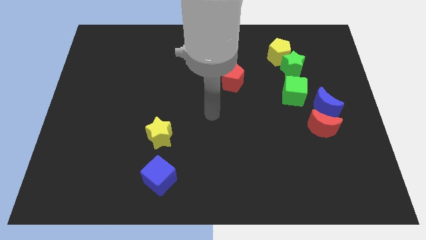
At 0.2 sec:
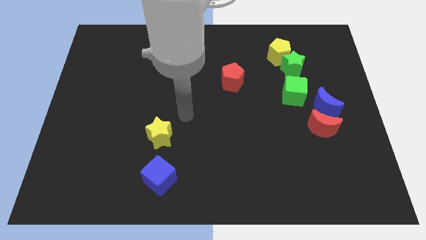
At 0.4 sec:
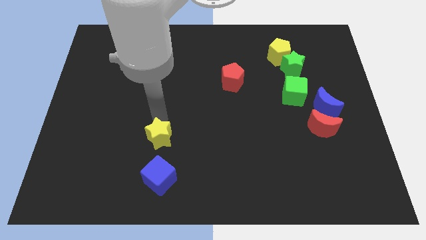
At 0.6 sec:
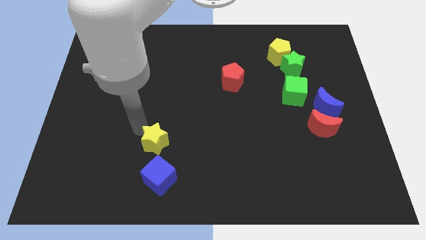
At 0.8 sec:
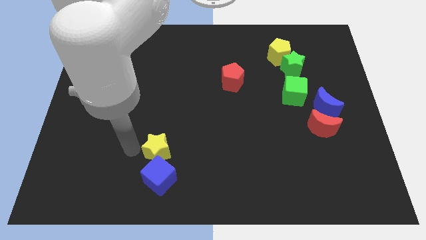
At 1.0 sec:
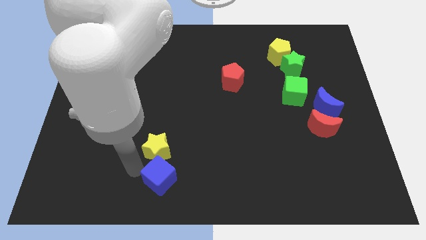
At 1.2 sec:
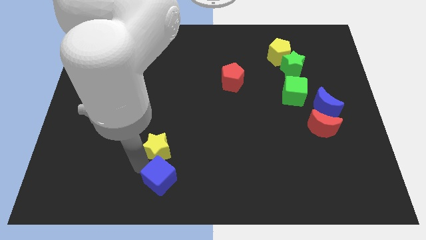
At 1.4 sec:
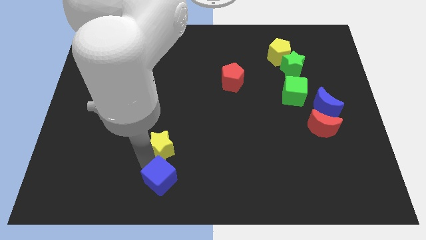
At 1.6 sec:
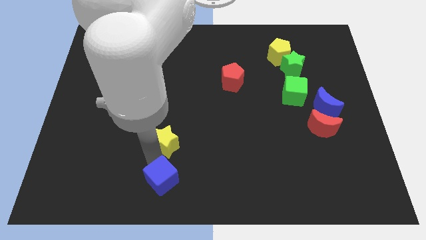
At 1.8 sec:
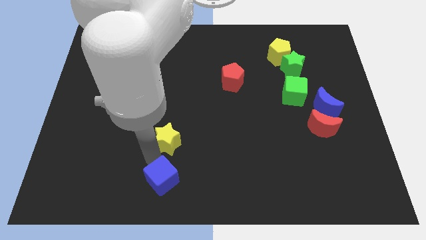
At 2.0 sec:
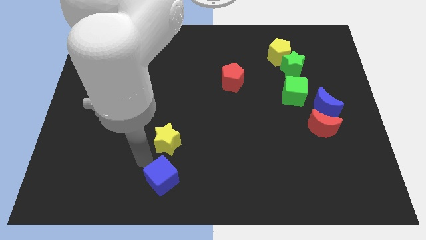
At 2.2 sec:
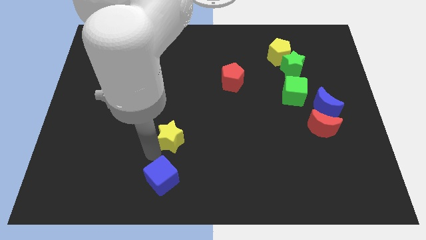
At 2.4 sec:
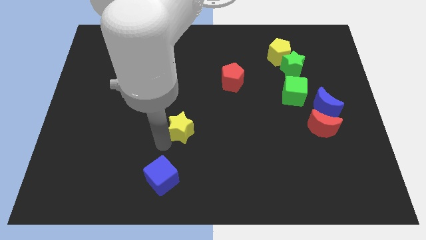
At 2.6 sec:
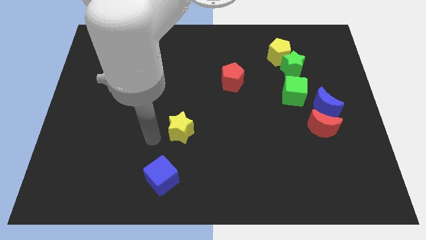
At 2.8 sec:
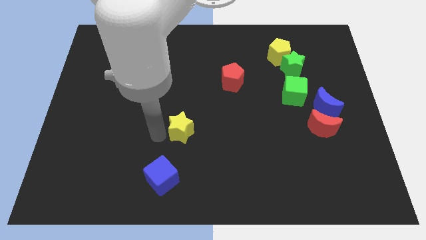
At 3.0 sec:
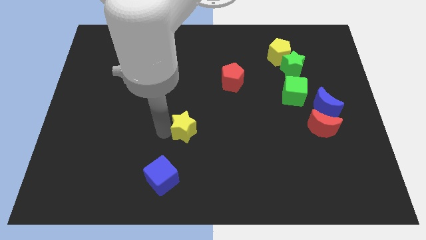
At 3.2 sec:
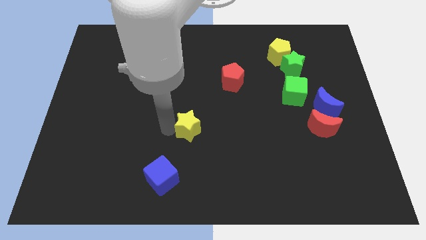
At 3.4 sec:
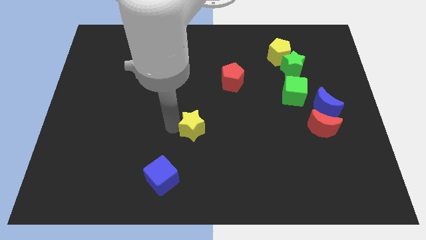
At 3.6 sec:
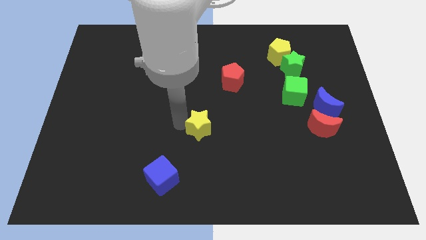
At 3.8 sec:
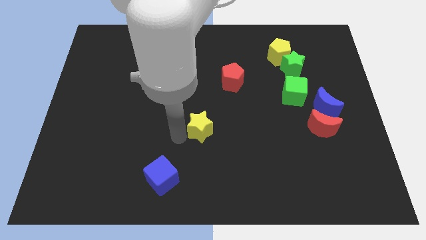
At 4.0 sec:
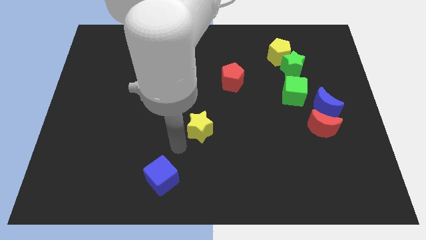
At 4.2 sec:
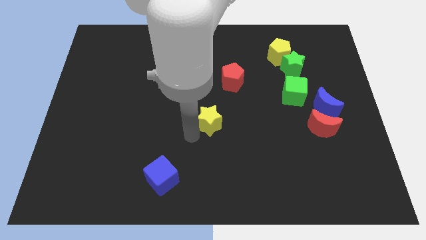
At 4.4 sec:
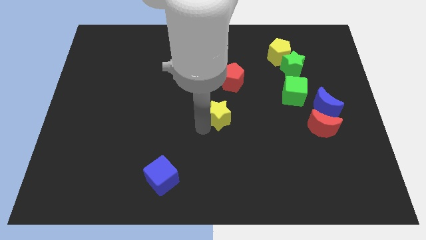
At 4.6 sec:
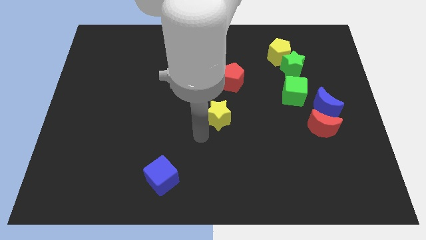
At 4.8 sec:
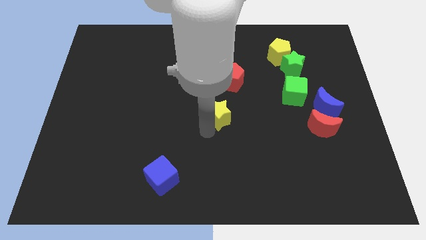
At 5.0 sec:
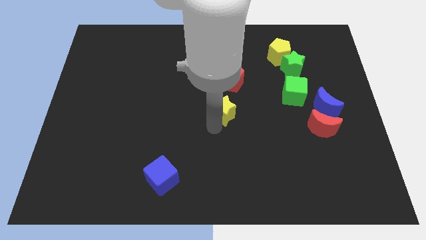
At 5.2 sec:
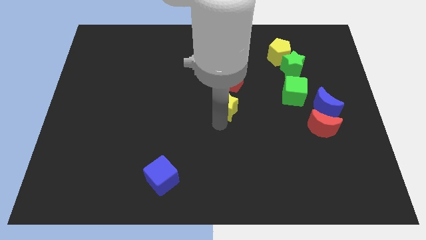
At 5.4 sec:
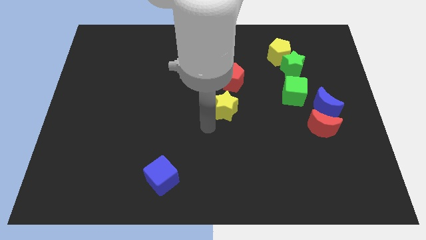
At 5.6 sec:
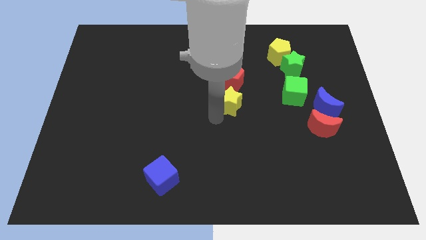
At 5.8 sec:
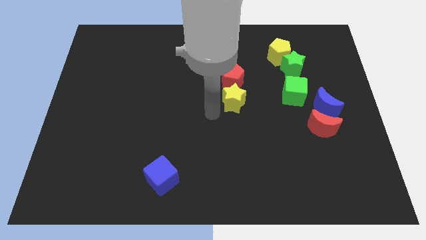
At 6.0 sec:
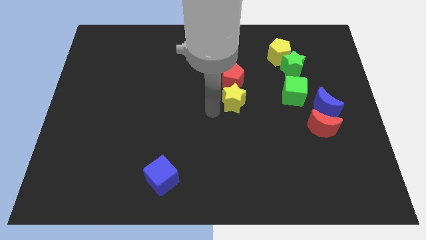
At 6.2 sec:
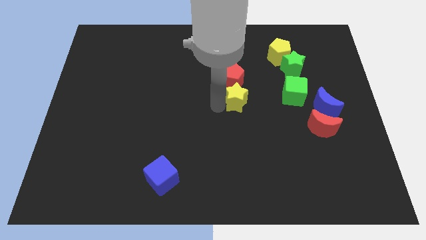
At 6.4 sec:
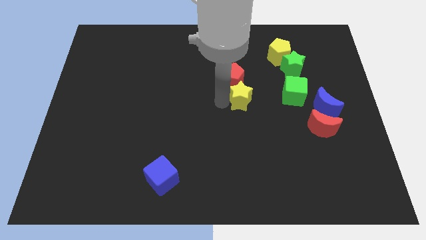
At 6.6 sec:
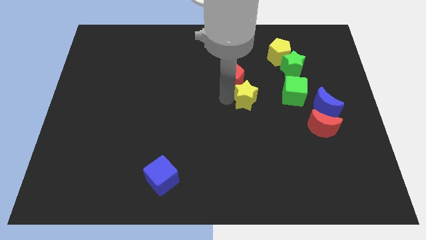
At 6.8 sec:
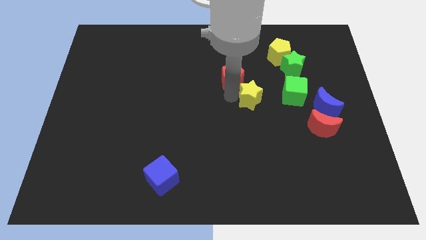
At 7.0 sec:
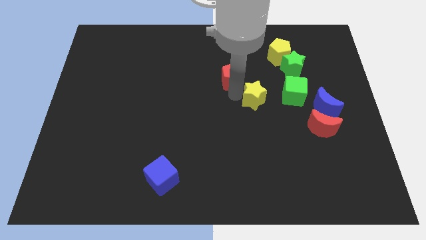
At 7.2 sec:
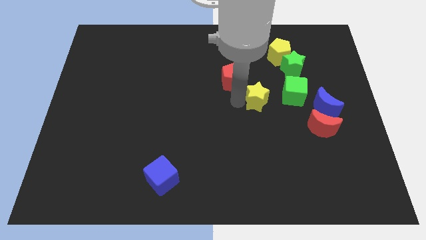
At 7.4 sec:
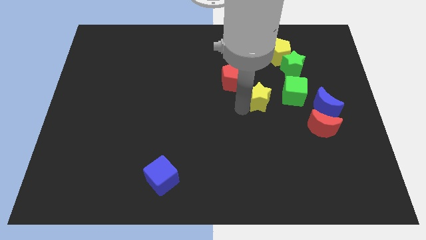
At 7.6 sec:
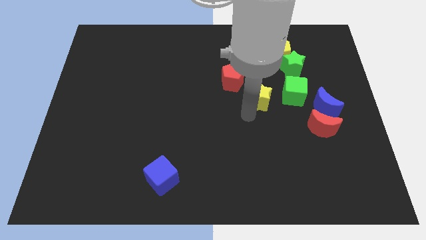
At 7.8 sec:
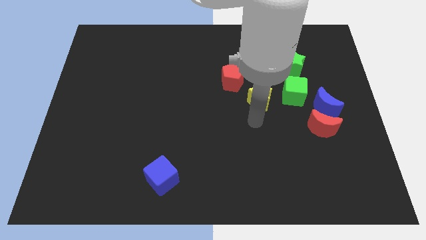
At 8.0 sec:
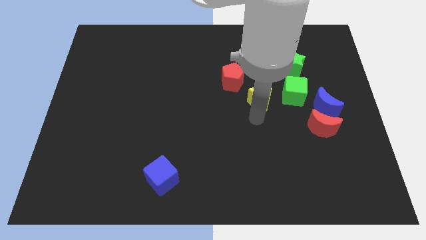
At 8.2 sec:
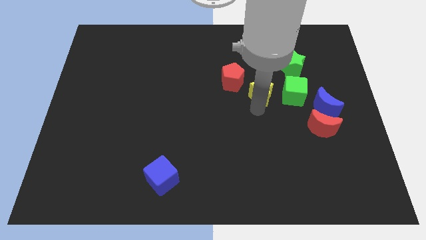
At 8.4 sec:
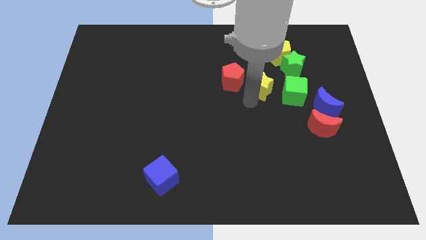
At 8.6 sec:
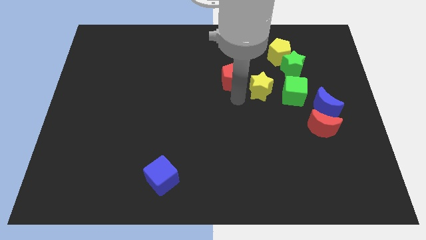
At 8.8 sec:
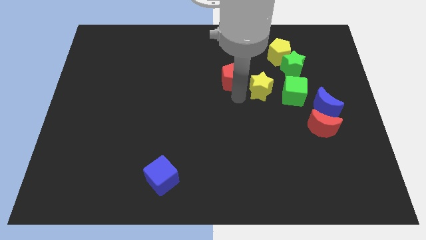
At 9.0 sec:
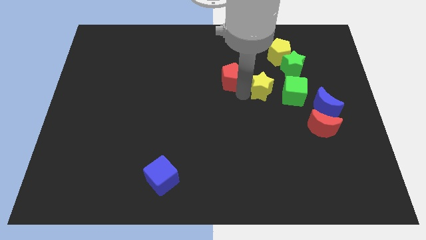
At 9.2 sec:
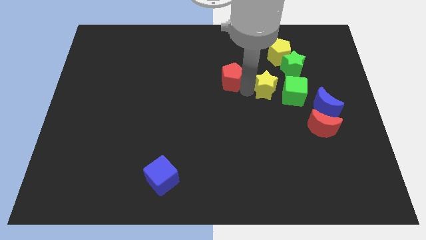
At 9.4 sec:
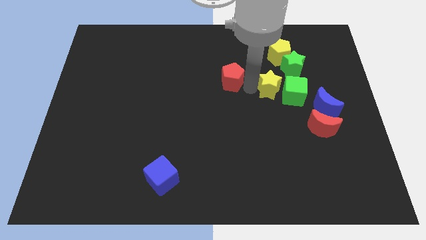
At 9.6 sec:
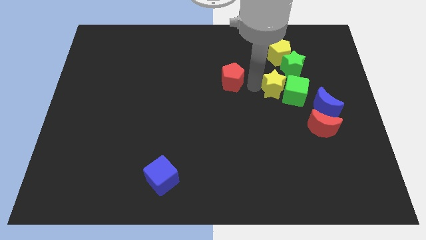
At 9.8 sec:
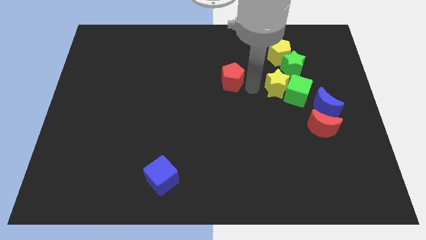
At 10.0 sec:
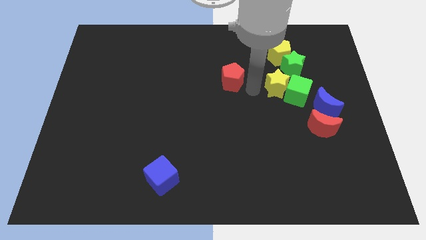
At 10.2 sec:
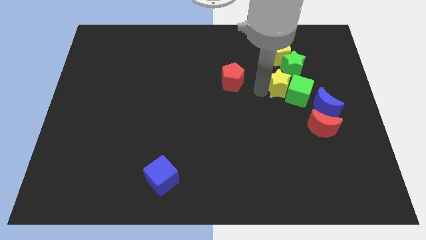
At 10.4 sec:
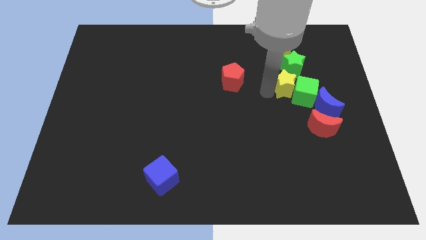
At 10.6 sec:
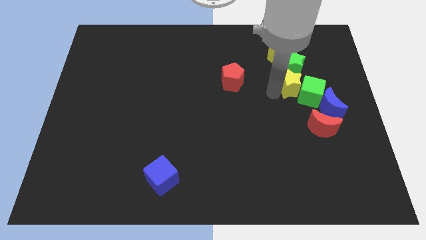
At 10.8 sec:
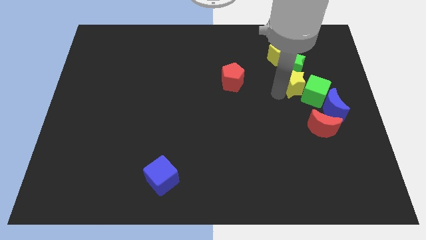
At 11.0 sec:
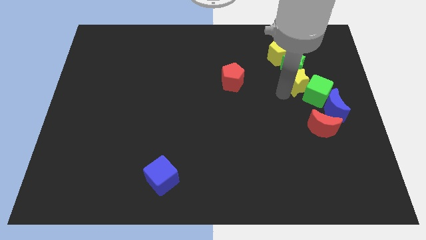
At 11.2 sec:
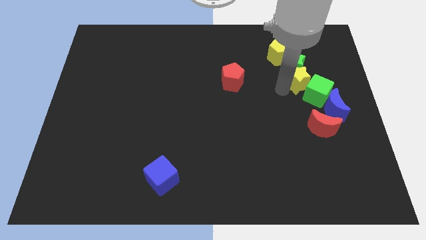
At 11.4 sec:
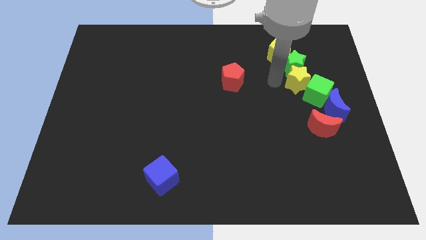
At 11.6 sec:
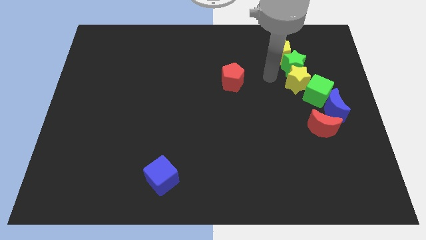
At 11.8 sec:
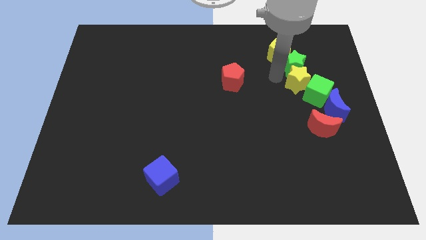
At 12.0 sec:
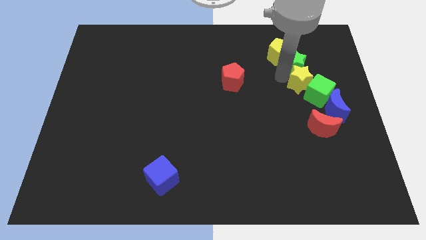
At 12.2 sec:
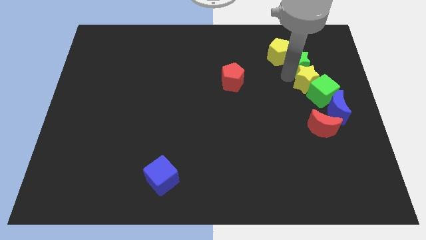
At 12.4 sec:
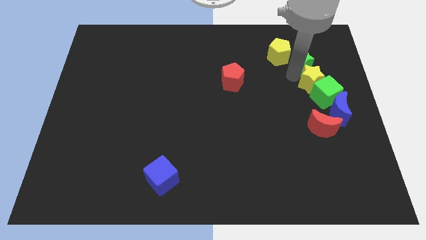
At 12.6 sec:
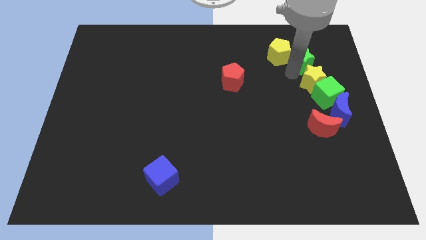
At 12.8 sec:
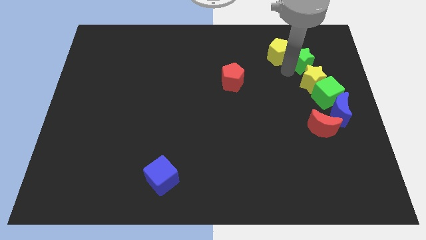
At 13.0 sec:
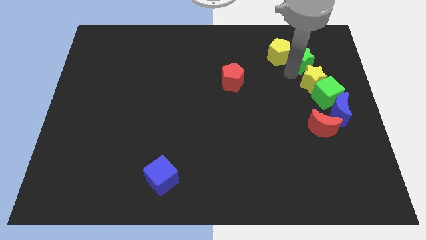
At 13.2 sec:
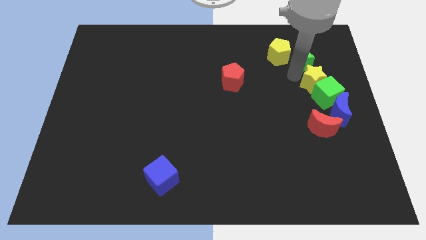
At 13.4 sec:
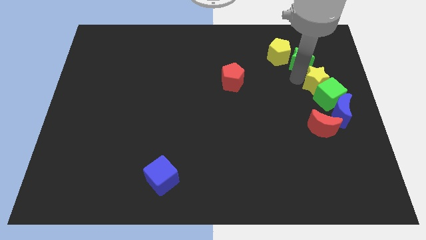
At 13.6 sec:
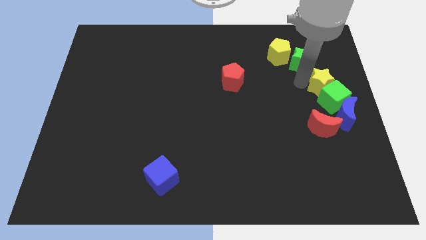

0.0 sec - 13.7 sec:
slide the yellow star to the right side of the board

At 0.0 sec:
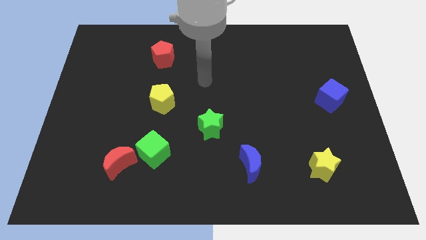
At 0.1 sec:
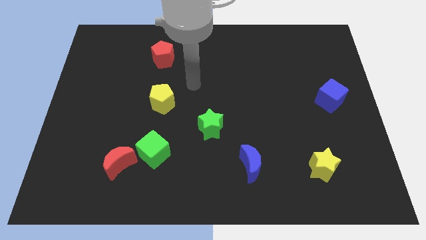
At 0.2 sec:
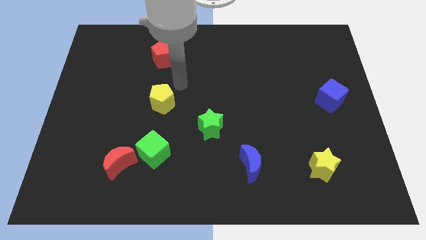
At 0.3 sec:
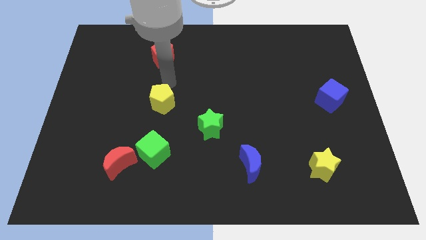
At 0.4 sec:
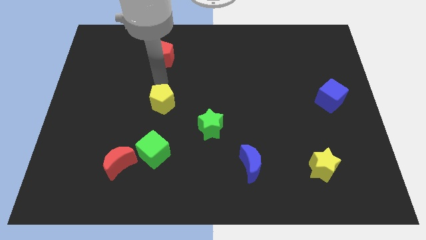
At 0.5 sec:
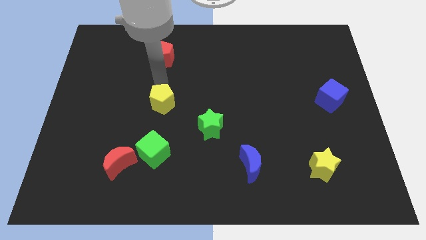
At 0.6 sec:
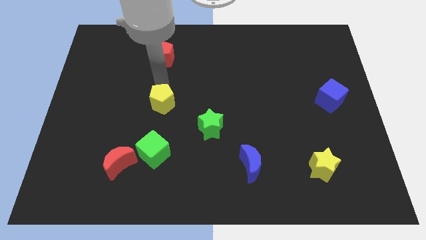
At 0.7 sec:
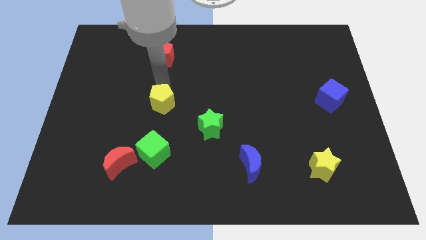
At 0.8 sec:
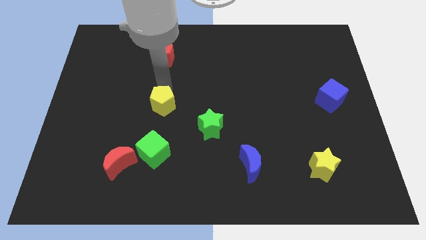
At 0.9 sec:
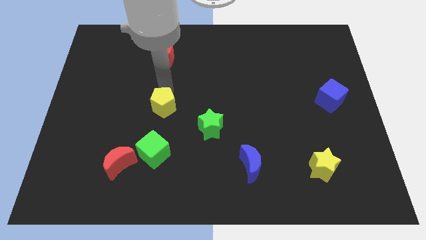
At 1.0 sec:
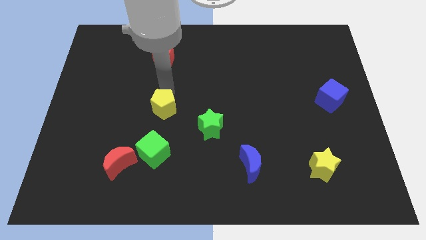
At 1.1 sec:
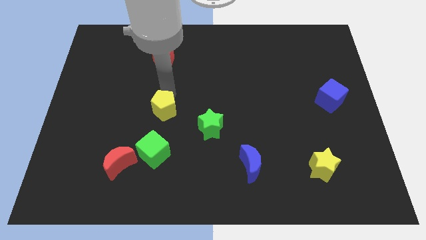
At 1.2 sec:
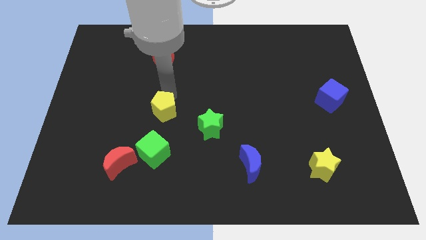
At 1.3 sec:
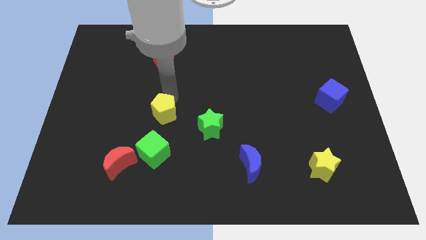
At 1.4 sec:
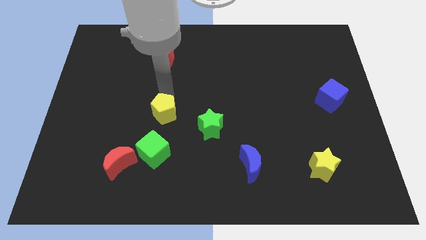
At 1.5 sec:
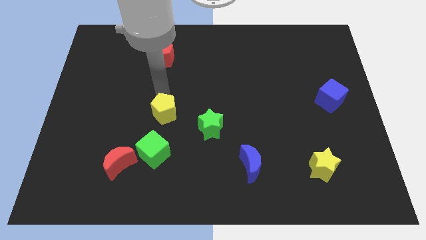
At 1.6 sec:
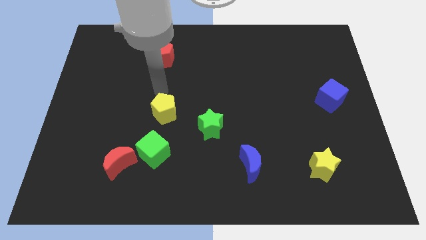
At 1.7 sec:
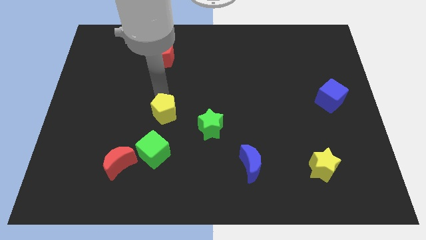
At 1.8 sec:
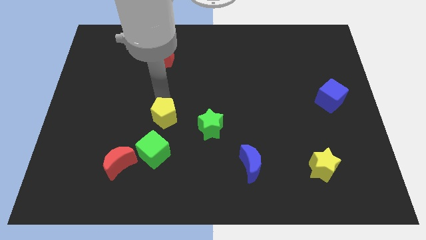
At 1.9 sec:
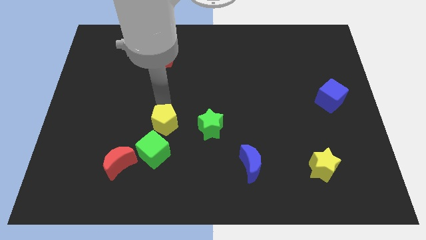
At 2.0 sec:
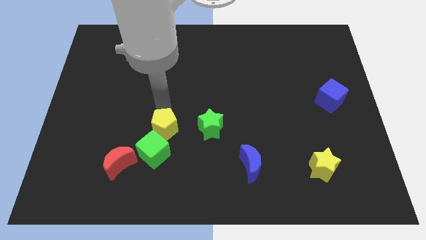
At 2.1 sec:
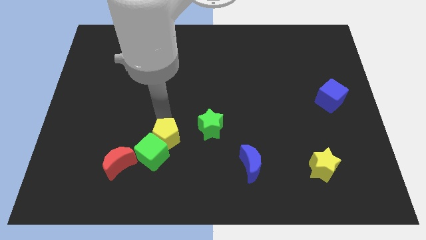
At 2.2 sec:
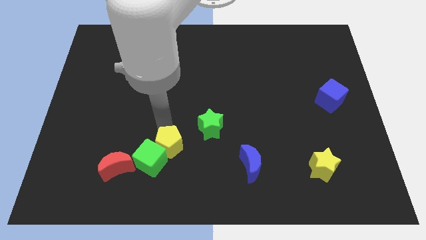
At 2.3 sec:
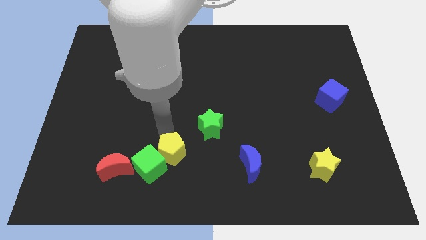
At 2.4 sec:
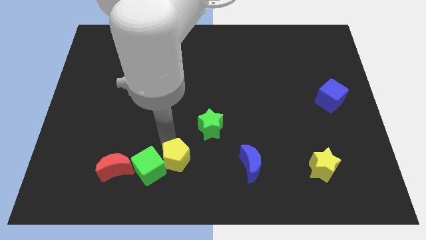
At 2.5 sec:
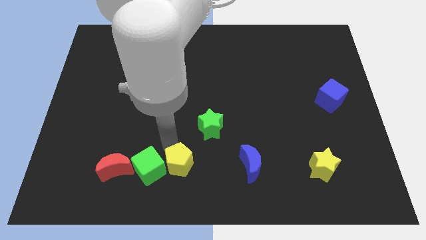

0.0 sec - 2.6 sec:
slide the yellow pentagon to the bottom side
